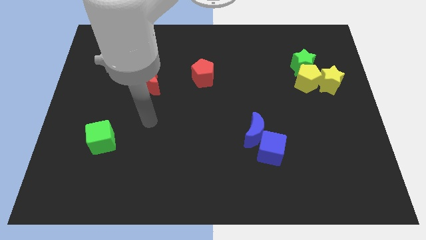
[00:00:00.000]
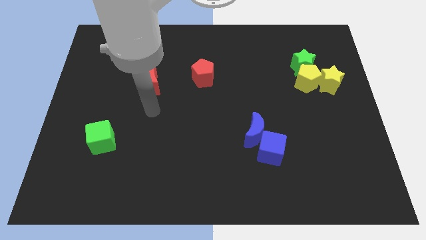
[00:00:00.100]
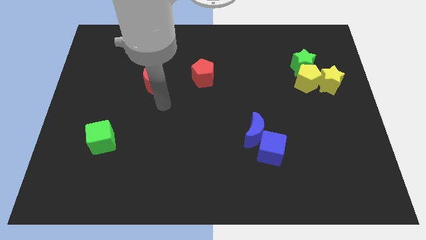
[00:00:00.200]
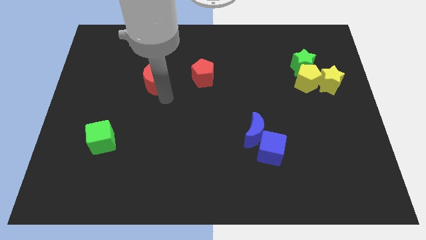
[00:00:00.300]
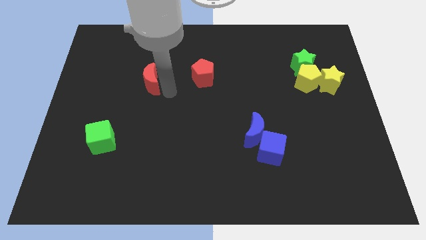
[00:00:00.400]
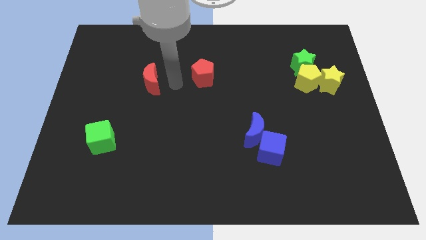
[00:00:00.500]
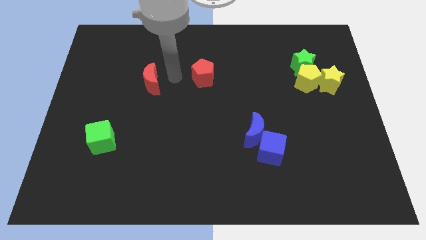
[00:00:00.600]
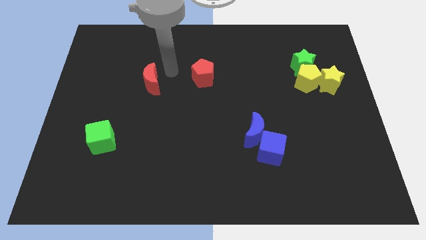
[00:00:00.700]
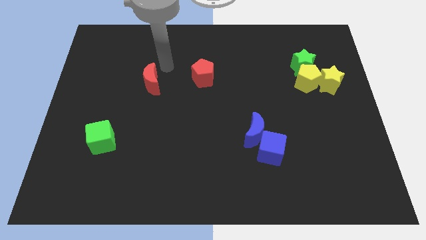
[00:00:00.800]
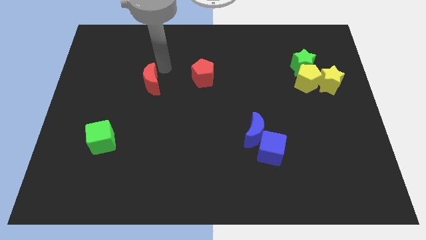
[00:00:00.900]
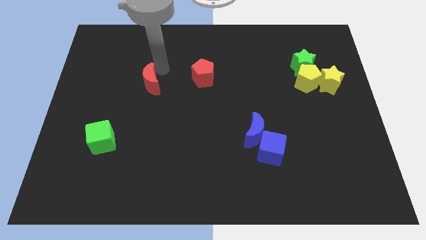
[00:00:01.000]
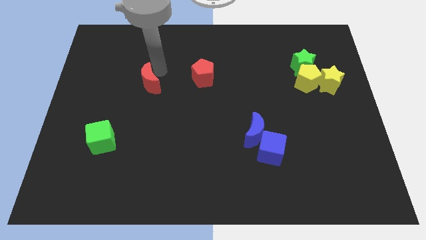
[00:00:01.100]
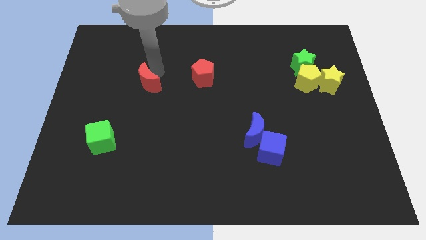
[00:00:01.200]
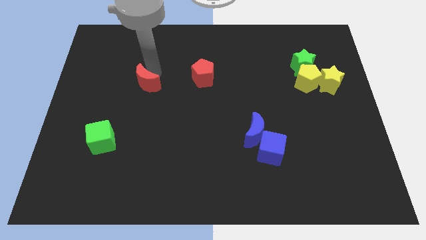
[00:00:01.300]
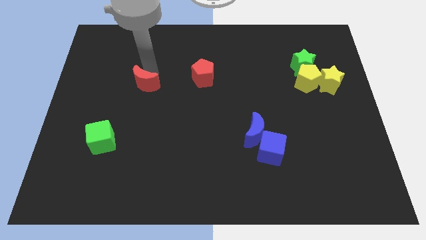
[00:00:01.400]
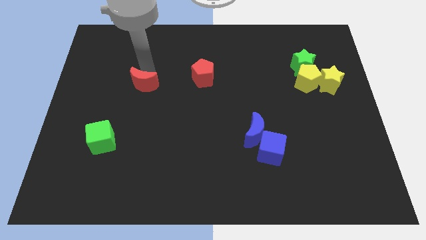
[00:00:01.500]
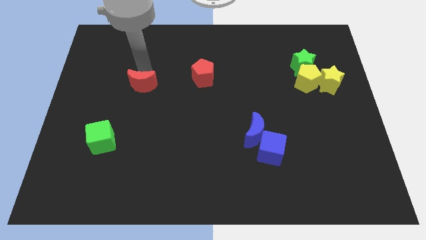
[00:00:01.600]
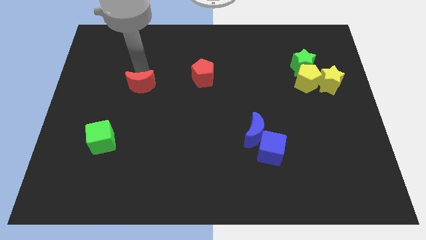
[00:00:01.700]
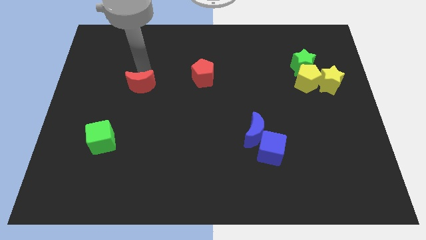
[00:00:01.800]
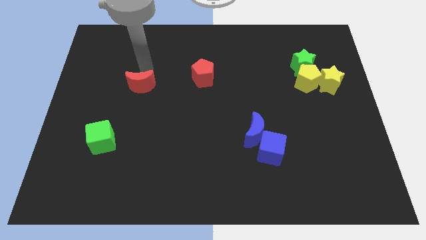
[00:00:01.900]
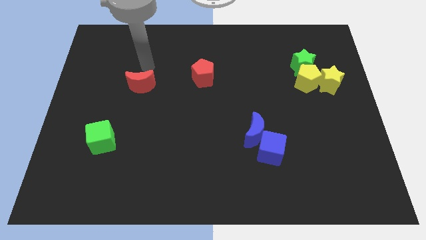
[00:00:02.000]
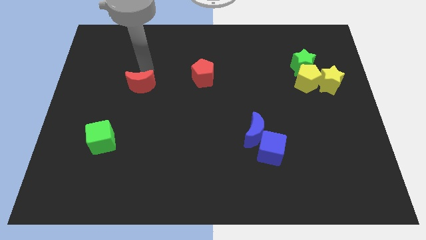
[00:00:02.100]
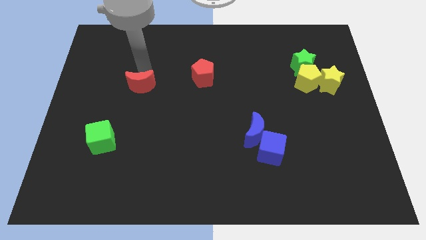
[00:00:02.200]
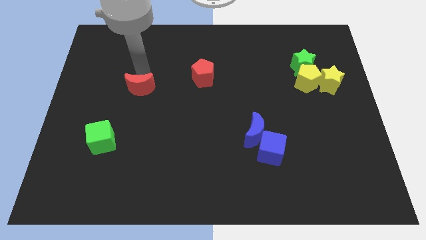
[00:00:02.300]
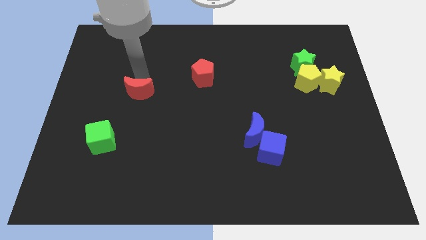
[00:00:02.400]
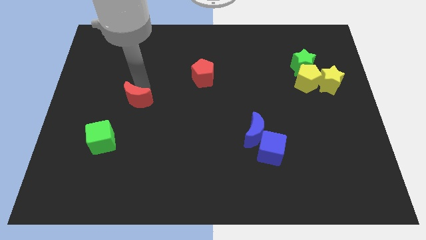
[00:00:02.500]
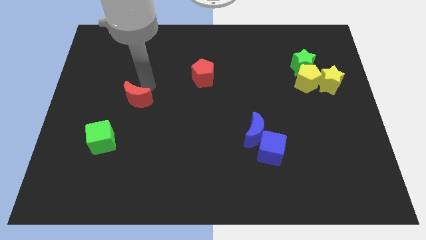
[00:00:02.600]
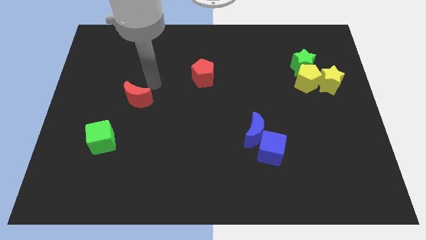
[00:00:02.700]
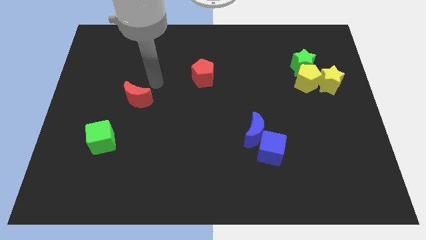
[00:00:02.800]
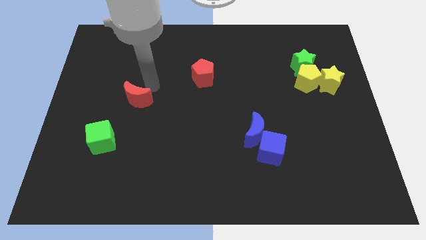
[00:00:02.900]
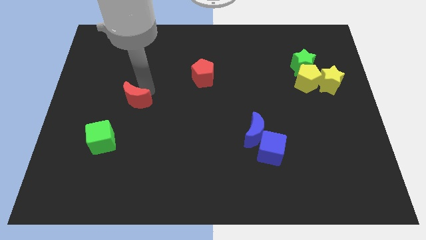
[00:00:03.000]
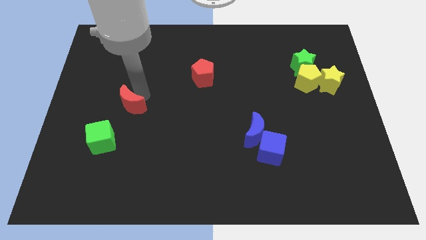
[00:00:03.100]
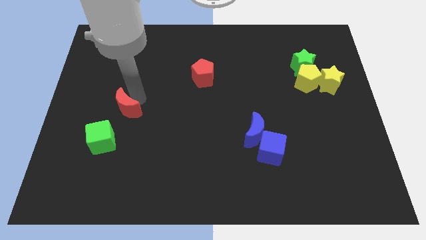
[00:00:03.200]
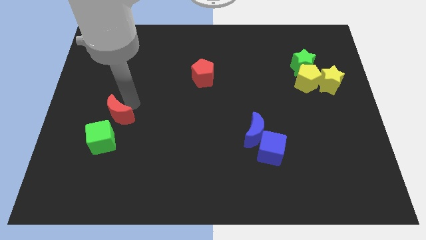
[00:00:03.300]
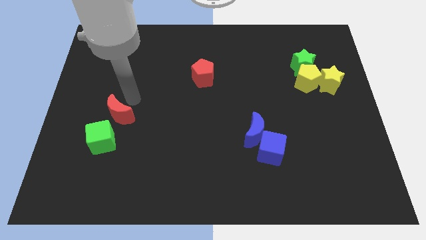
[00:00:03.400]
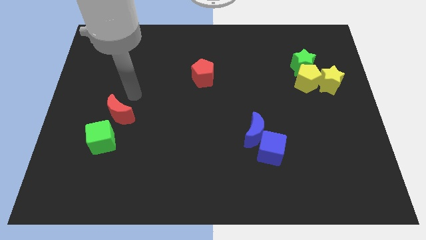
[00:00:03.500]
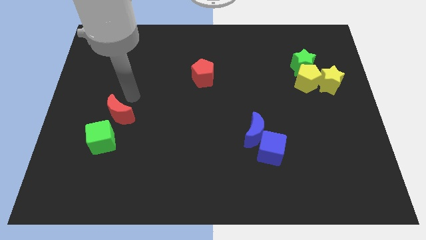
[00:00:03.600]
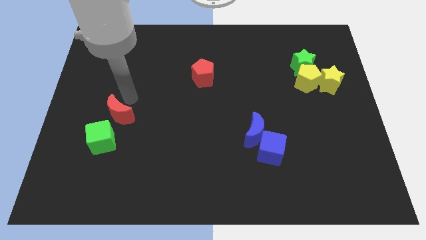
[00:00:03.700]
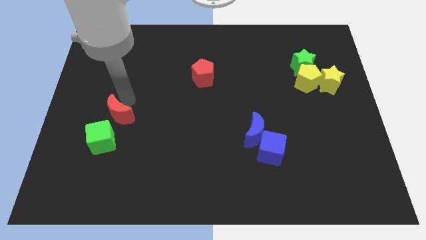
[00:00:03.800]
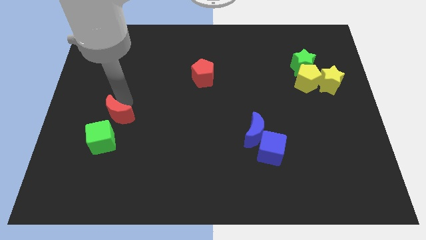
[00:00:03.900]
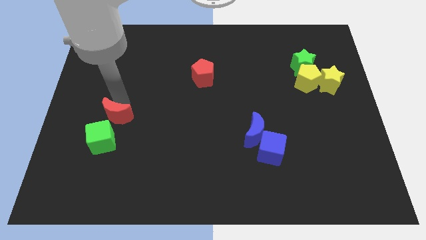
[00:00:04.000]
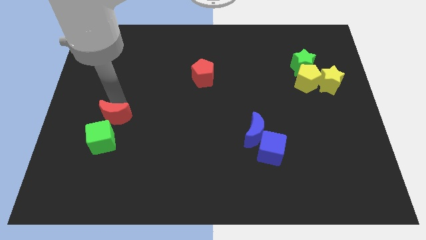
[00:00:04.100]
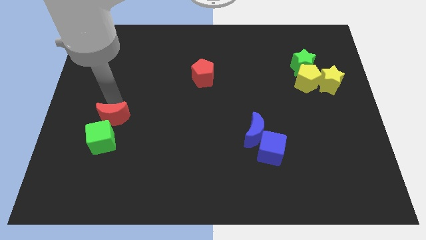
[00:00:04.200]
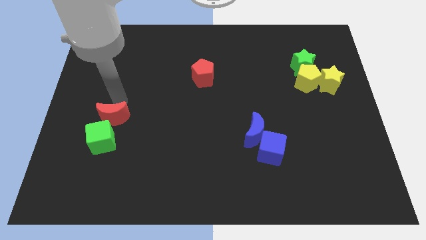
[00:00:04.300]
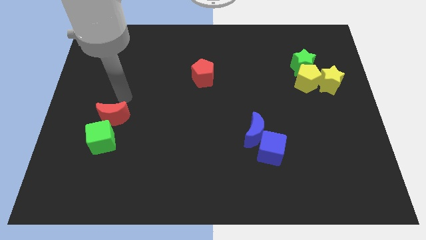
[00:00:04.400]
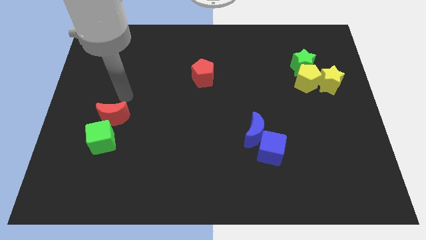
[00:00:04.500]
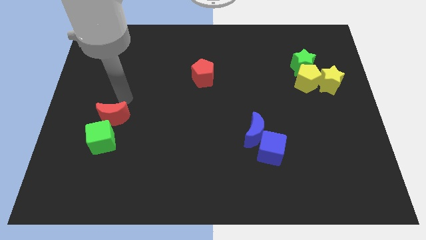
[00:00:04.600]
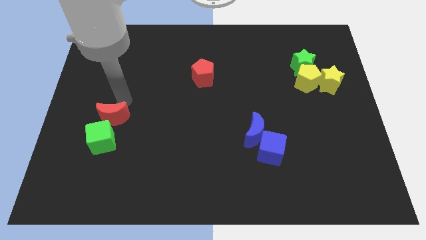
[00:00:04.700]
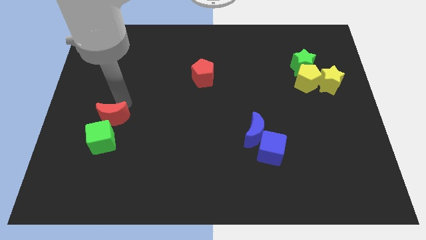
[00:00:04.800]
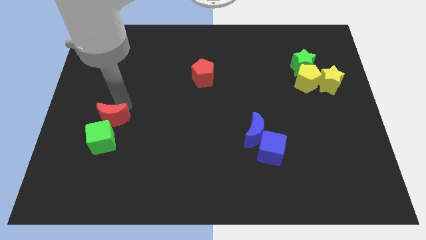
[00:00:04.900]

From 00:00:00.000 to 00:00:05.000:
push the red moon to the green cube

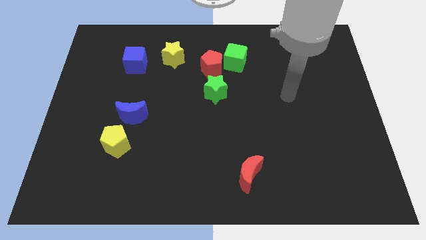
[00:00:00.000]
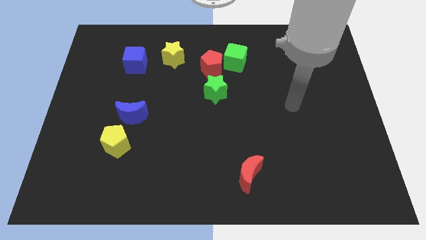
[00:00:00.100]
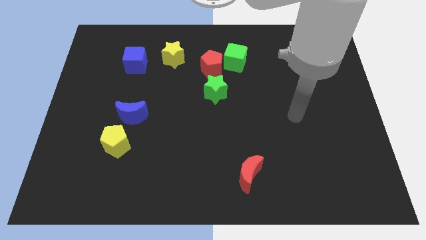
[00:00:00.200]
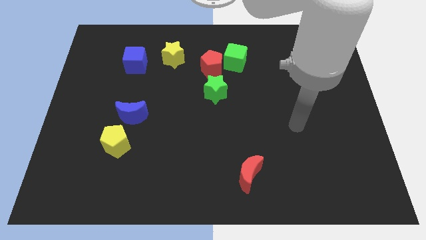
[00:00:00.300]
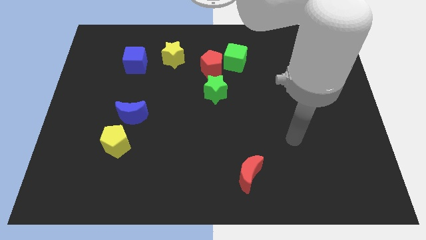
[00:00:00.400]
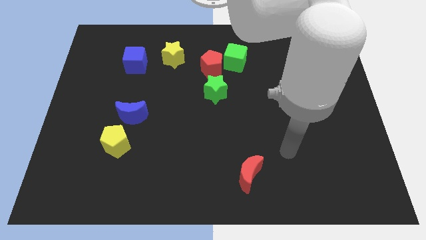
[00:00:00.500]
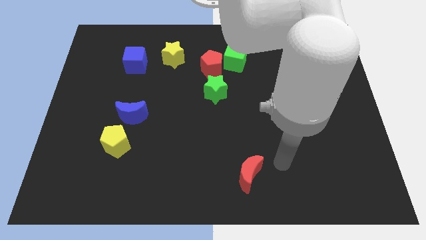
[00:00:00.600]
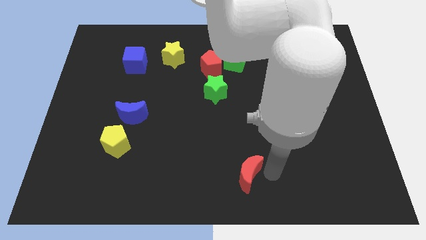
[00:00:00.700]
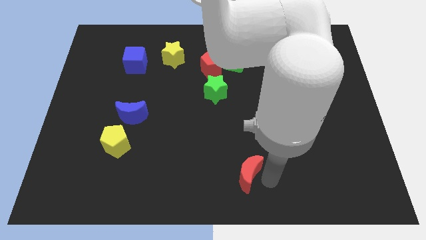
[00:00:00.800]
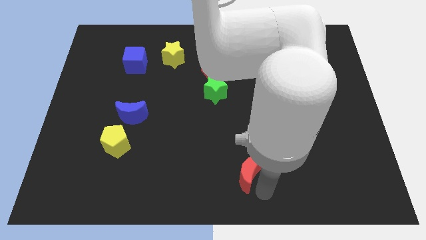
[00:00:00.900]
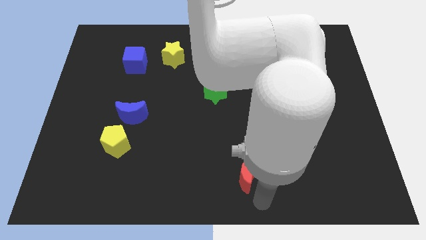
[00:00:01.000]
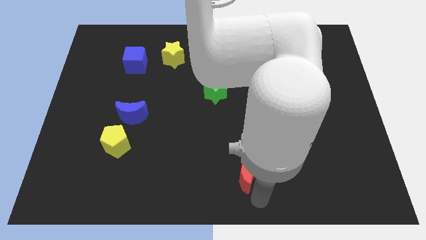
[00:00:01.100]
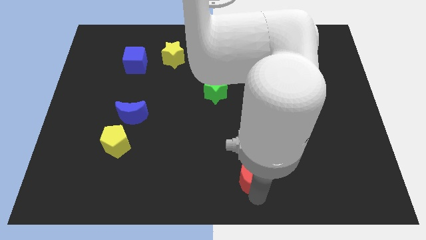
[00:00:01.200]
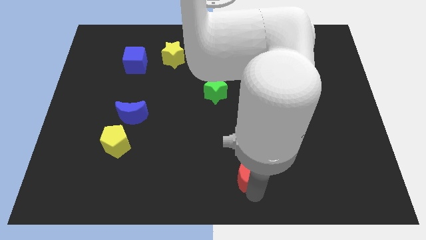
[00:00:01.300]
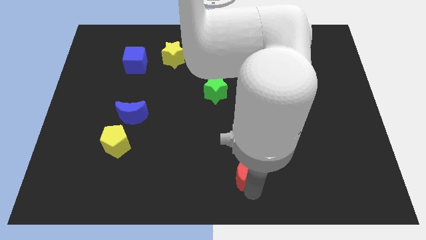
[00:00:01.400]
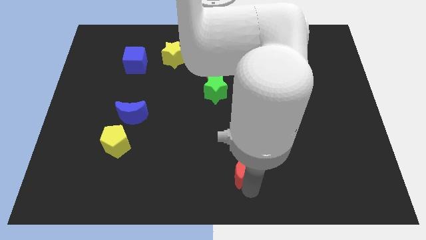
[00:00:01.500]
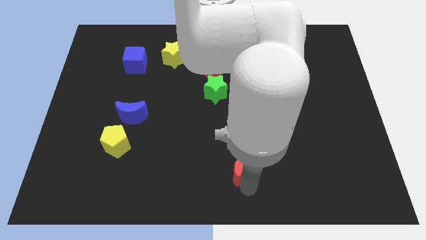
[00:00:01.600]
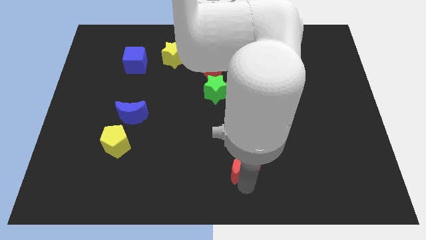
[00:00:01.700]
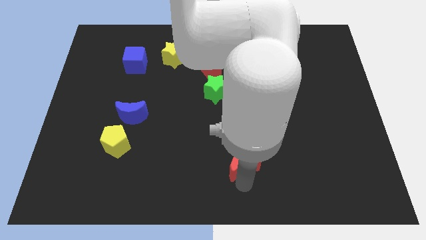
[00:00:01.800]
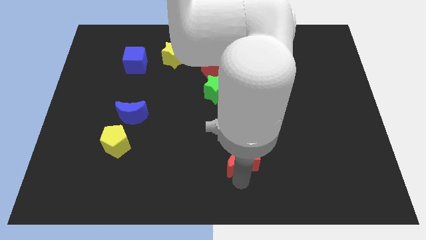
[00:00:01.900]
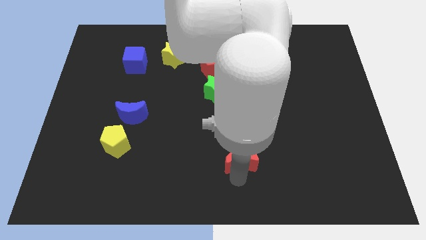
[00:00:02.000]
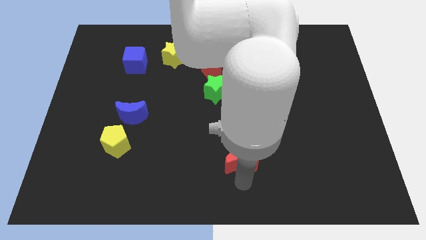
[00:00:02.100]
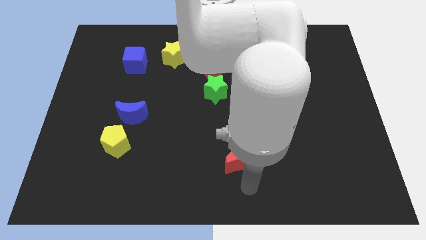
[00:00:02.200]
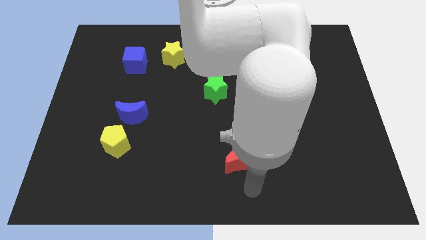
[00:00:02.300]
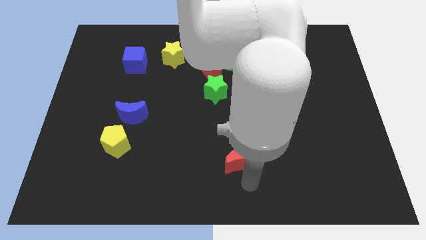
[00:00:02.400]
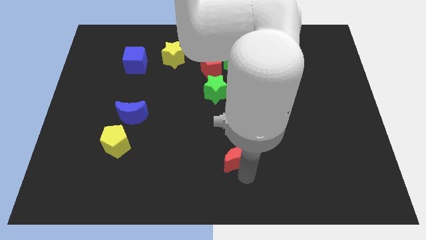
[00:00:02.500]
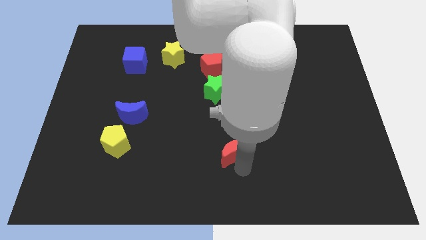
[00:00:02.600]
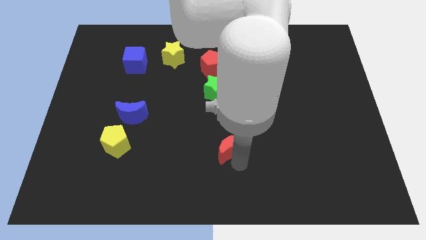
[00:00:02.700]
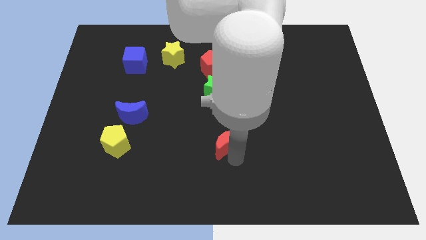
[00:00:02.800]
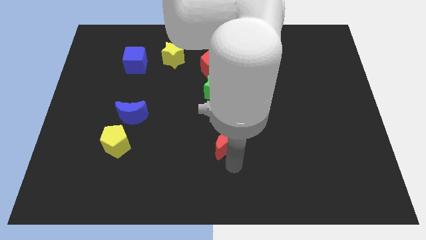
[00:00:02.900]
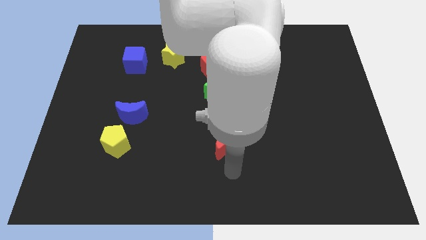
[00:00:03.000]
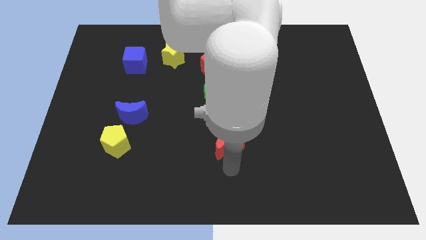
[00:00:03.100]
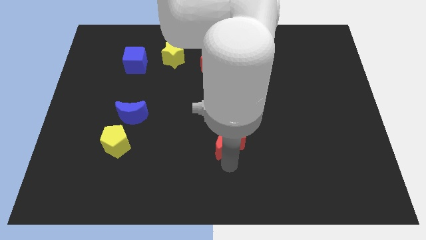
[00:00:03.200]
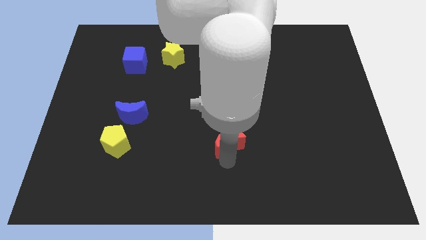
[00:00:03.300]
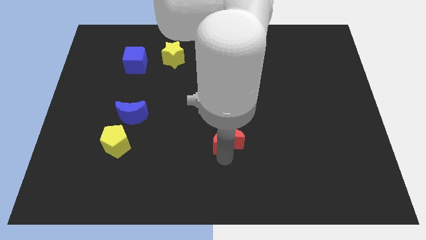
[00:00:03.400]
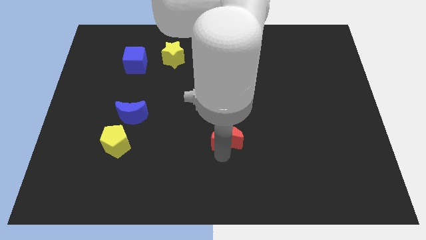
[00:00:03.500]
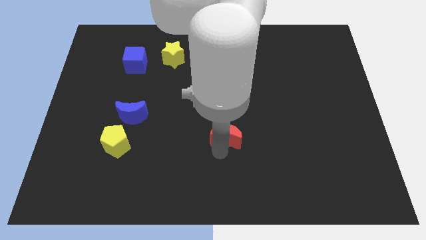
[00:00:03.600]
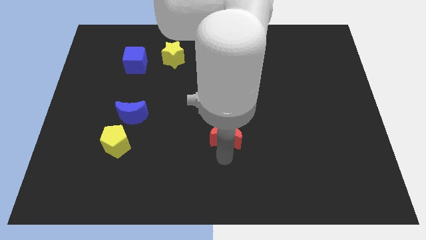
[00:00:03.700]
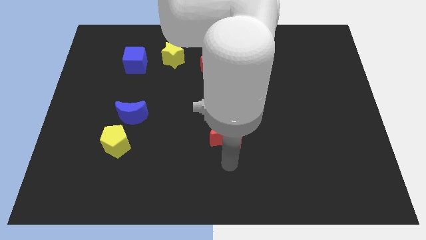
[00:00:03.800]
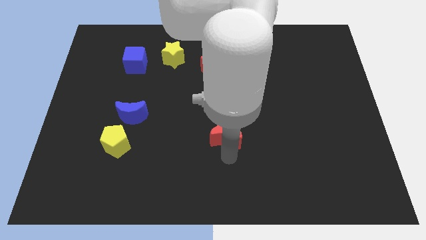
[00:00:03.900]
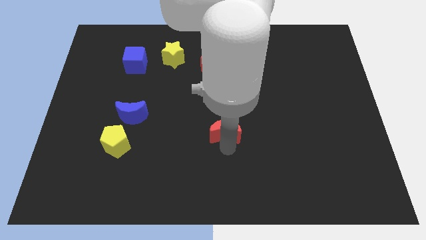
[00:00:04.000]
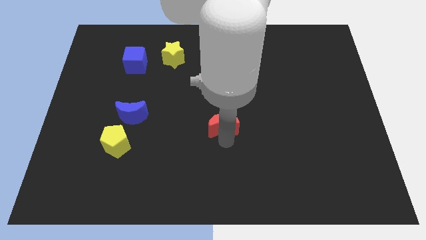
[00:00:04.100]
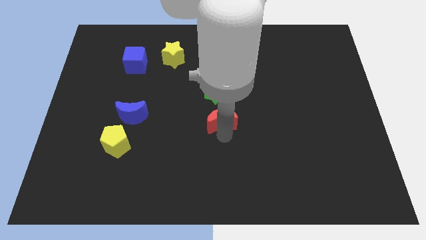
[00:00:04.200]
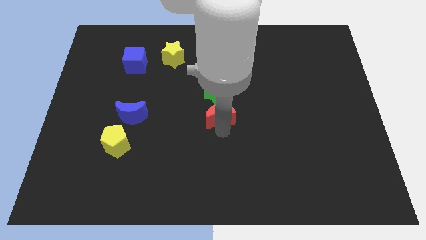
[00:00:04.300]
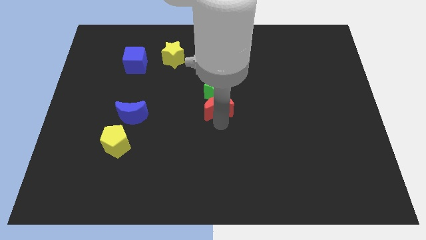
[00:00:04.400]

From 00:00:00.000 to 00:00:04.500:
move the red moon to the green star
